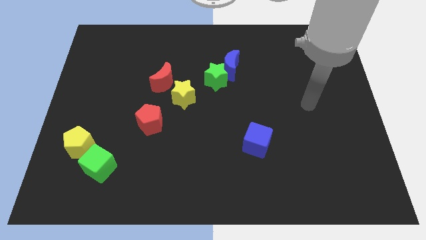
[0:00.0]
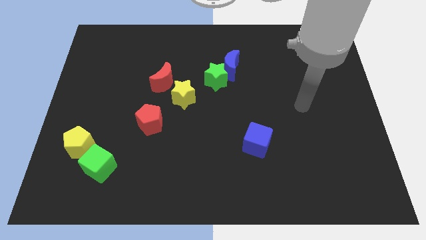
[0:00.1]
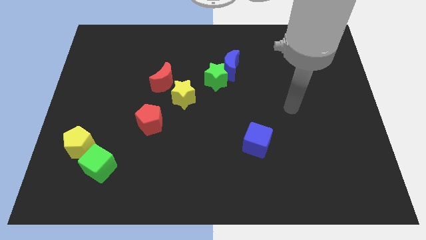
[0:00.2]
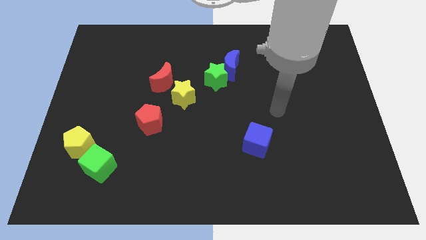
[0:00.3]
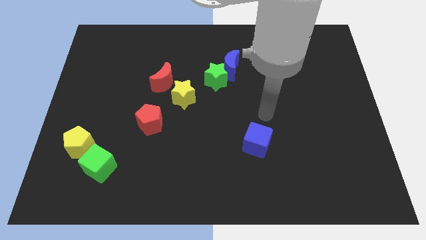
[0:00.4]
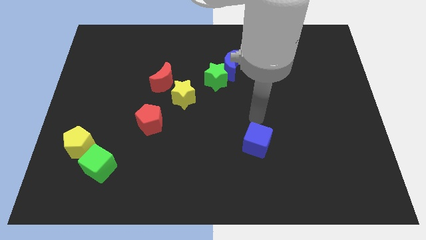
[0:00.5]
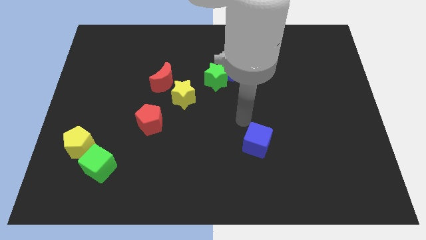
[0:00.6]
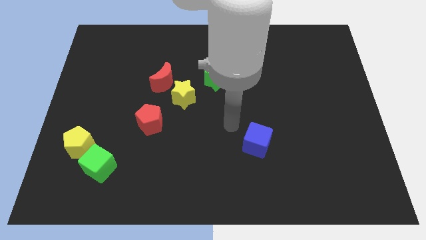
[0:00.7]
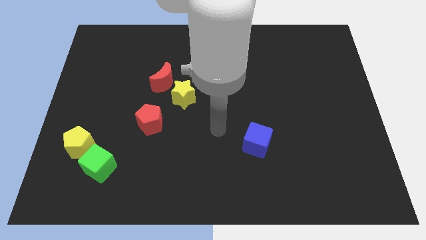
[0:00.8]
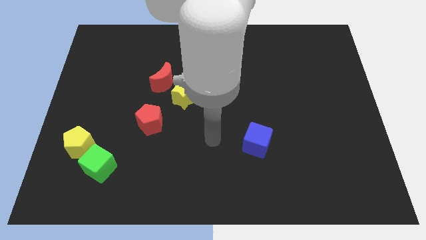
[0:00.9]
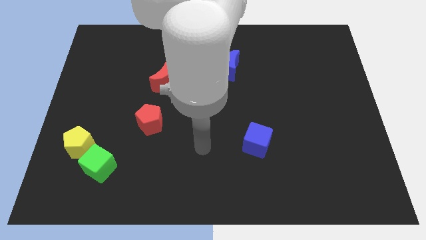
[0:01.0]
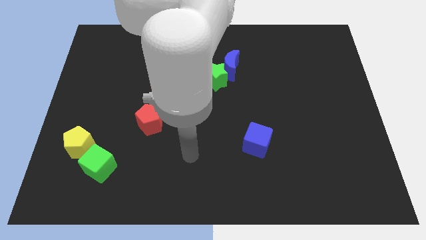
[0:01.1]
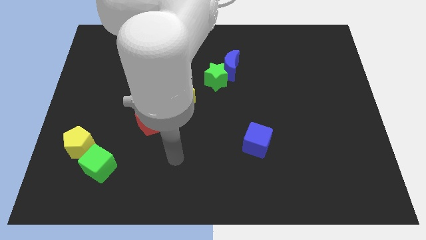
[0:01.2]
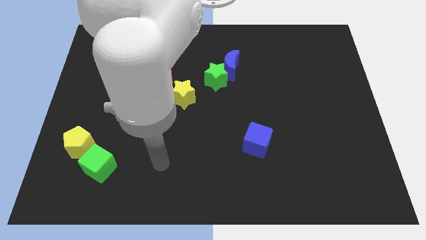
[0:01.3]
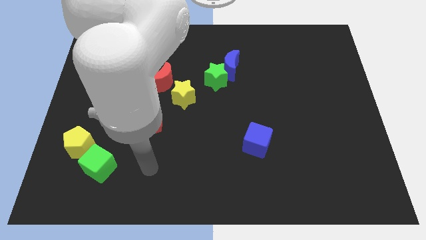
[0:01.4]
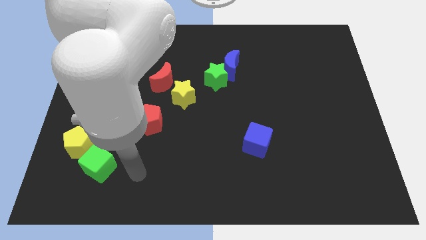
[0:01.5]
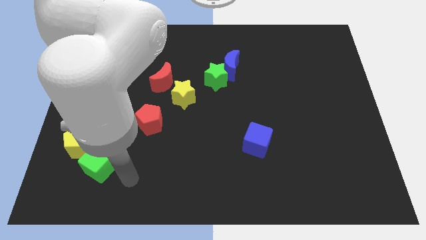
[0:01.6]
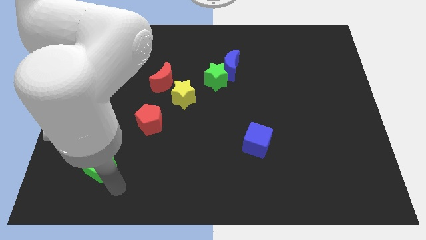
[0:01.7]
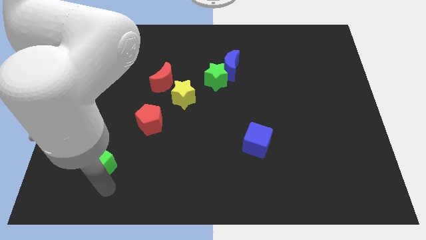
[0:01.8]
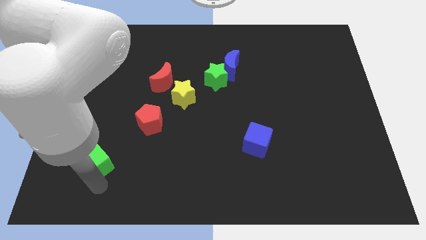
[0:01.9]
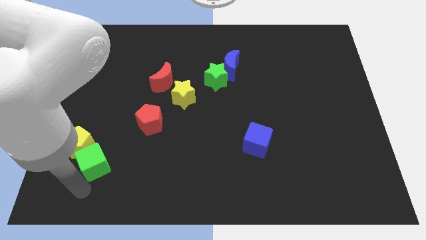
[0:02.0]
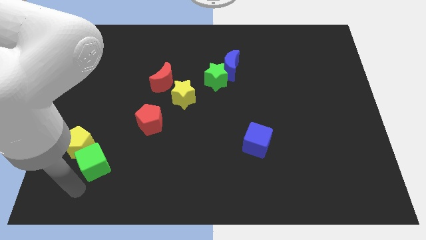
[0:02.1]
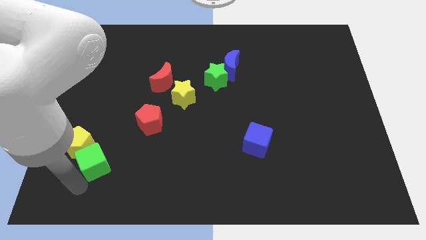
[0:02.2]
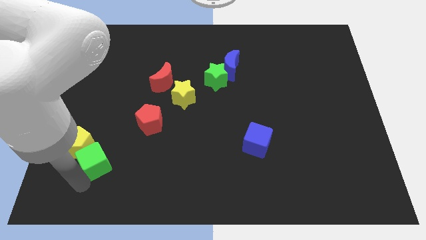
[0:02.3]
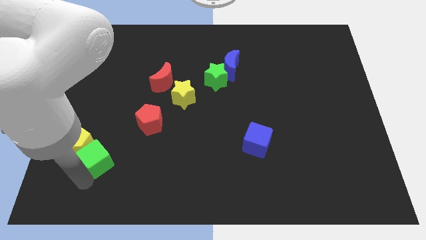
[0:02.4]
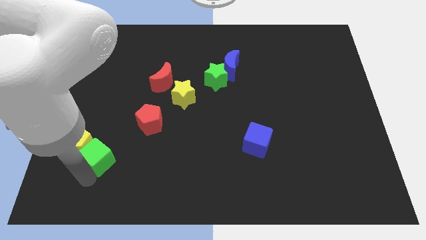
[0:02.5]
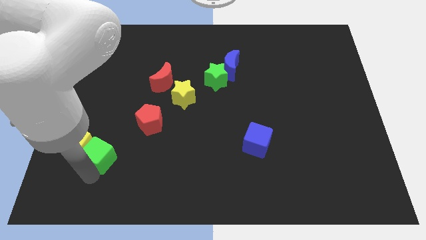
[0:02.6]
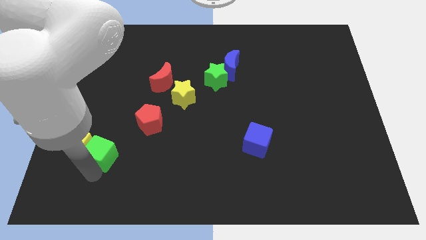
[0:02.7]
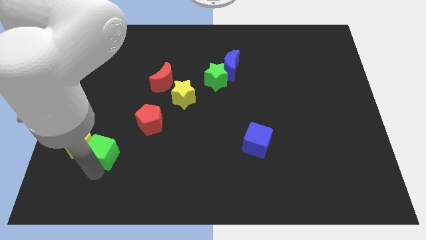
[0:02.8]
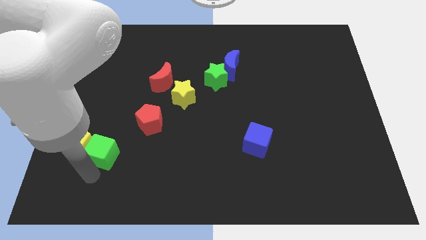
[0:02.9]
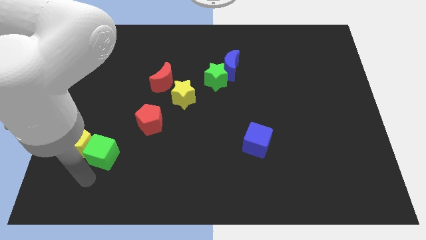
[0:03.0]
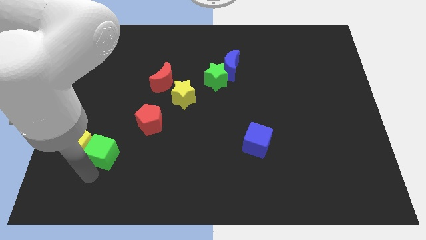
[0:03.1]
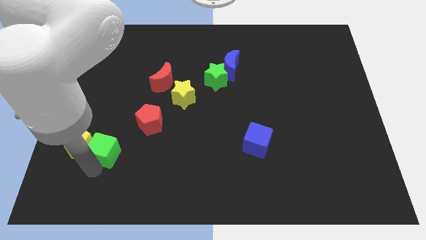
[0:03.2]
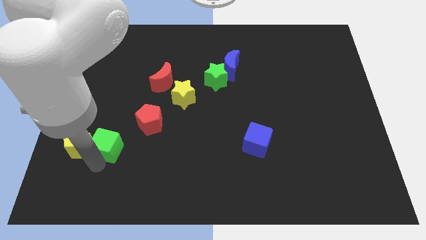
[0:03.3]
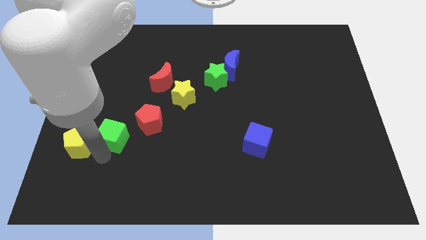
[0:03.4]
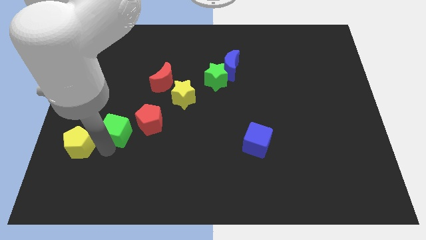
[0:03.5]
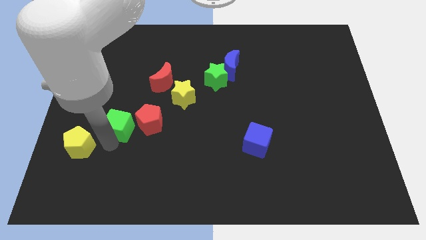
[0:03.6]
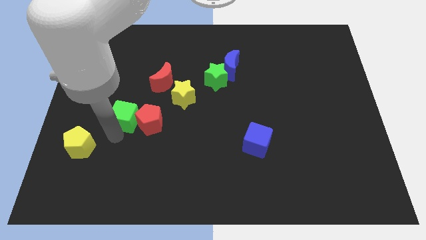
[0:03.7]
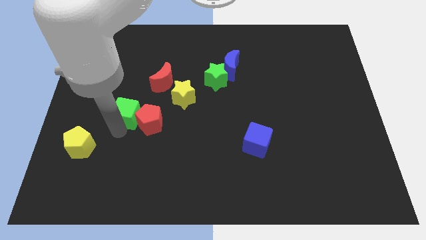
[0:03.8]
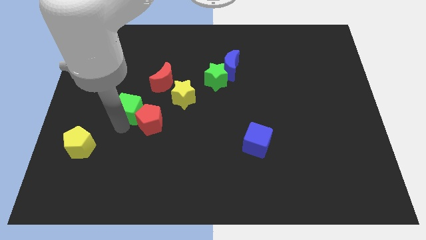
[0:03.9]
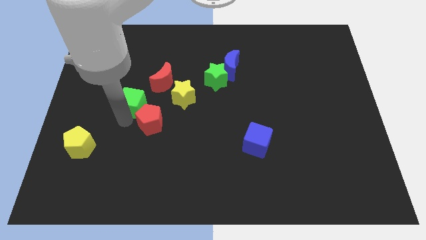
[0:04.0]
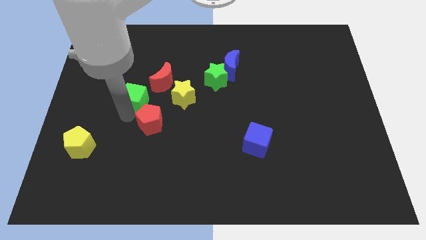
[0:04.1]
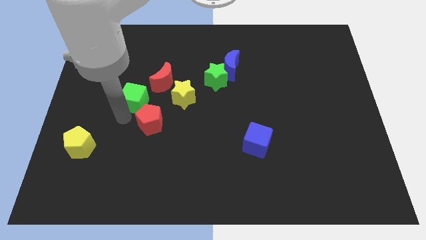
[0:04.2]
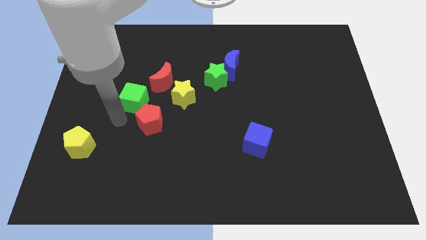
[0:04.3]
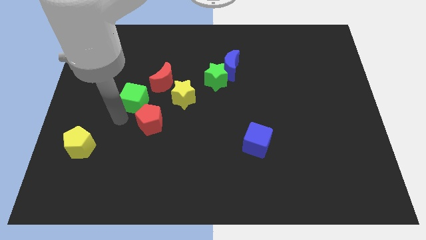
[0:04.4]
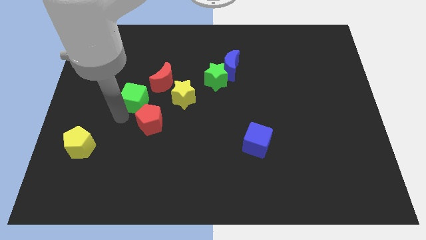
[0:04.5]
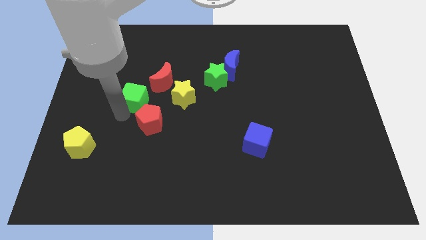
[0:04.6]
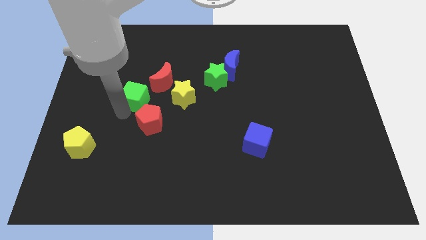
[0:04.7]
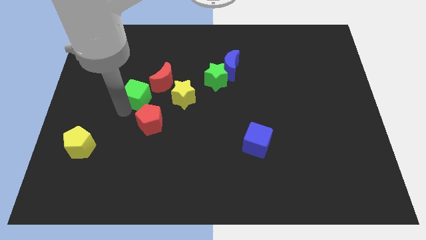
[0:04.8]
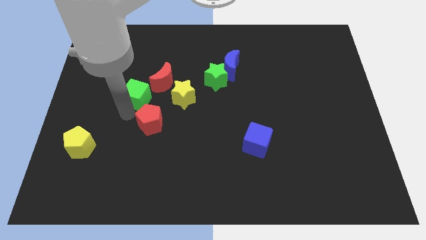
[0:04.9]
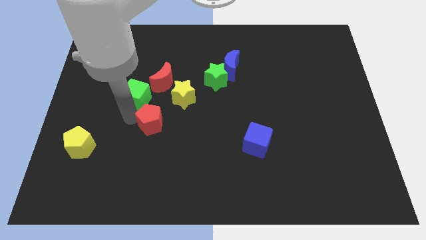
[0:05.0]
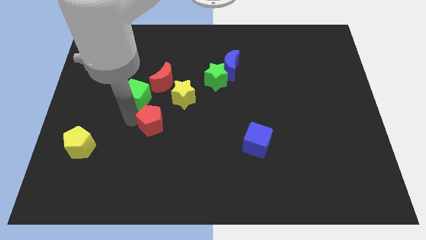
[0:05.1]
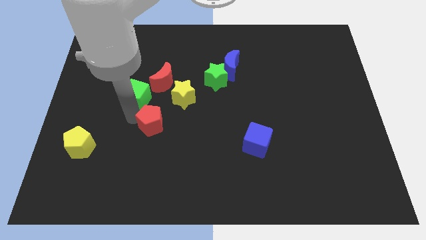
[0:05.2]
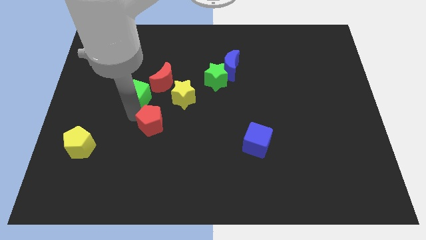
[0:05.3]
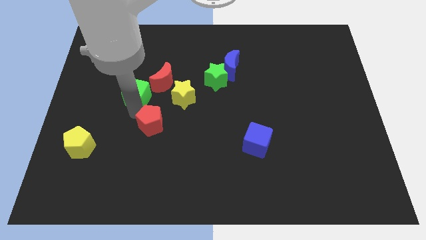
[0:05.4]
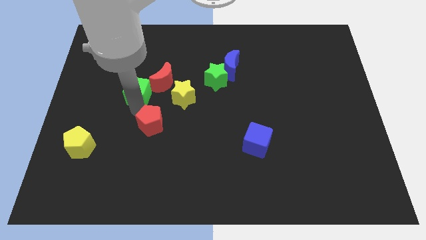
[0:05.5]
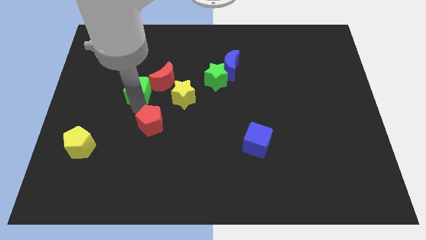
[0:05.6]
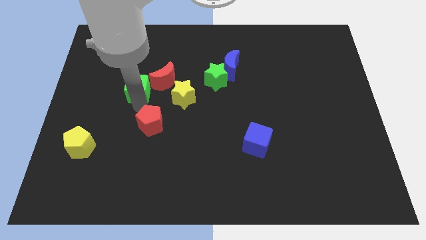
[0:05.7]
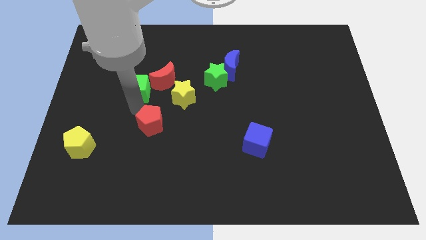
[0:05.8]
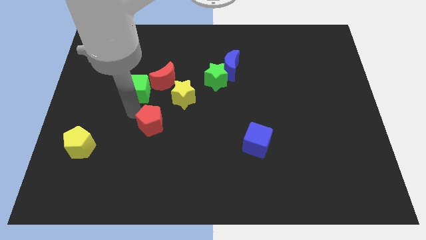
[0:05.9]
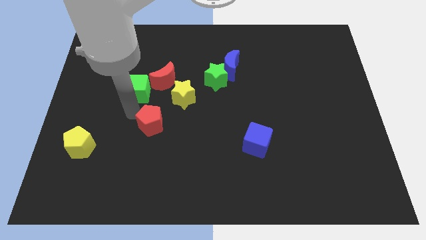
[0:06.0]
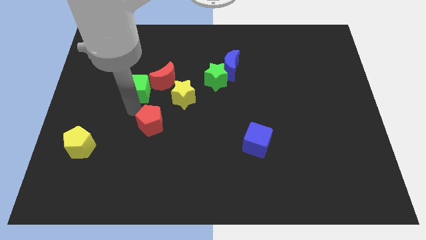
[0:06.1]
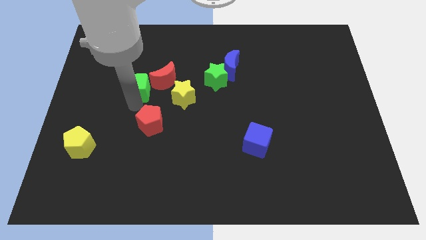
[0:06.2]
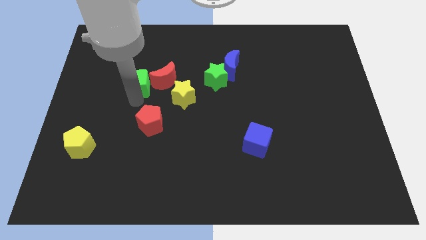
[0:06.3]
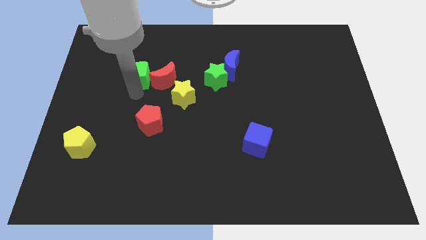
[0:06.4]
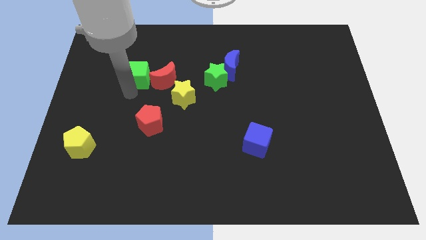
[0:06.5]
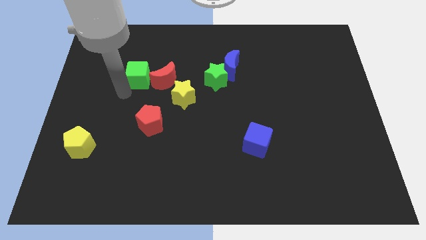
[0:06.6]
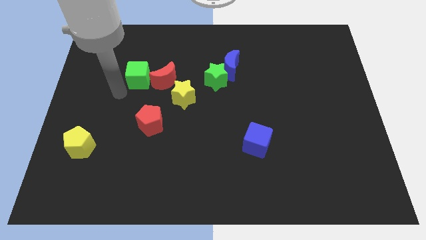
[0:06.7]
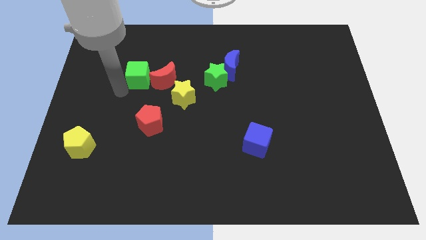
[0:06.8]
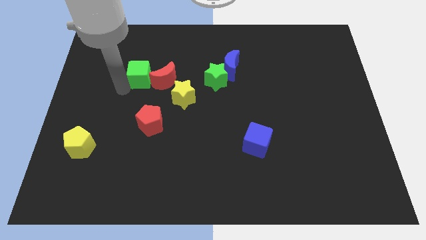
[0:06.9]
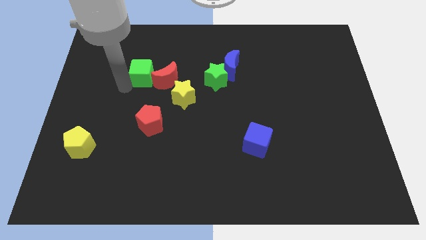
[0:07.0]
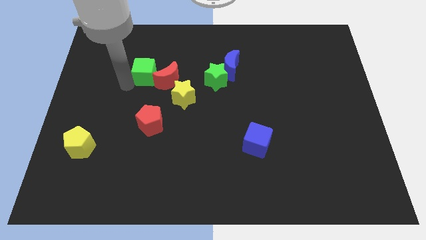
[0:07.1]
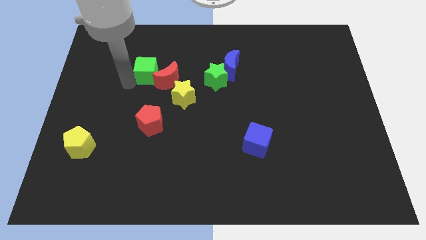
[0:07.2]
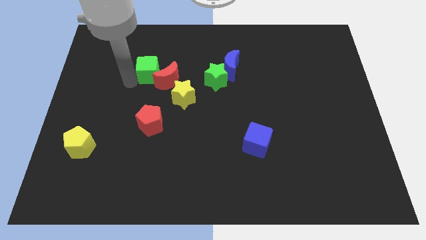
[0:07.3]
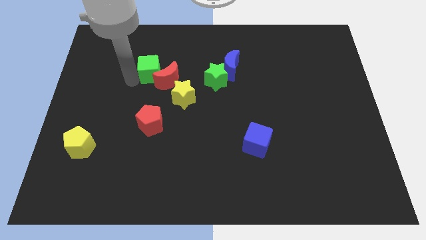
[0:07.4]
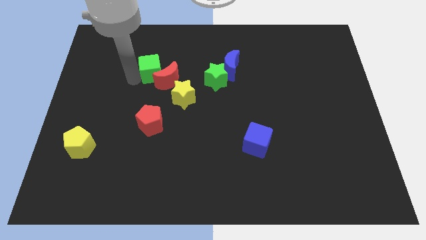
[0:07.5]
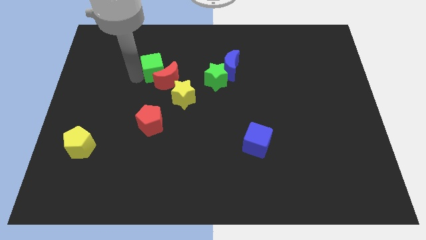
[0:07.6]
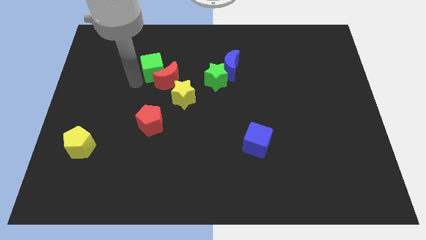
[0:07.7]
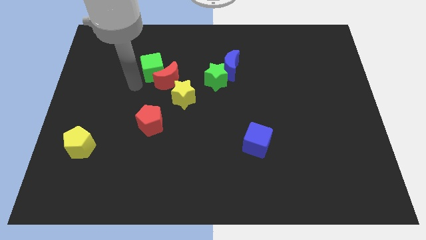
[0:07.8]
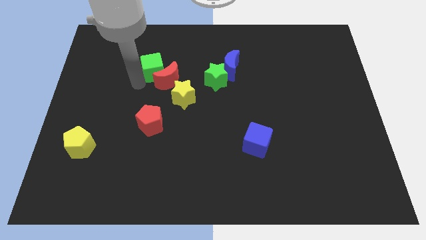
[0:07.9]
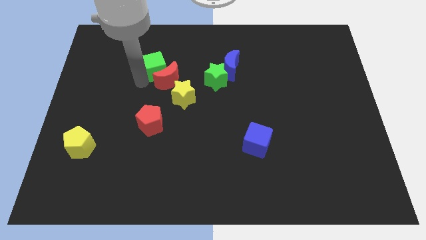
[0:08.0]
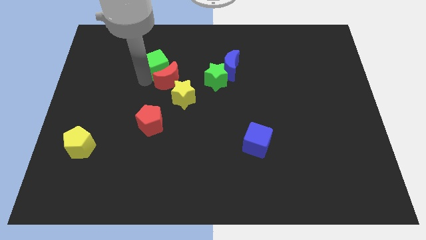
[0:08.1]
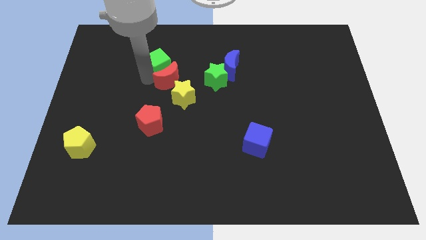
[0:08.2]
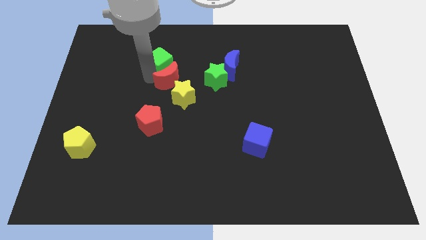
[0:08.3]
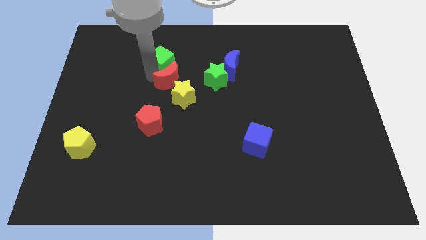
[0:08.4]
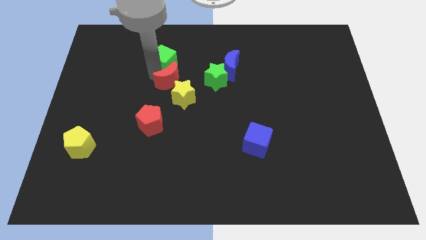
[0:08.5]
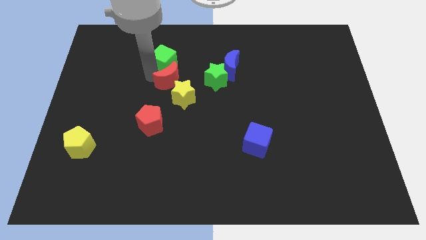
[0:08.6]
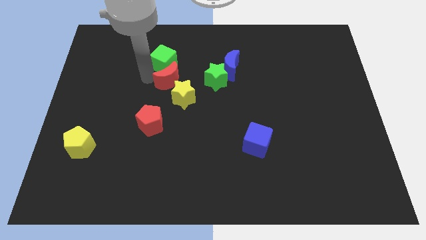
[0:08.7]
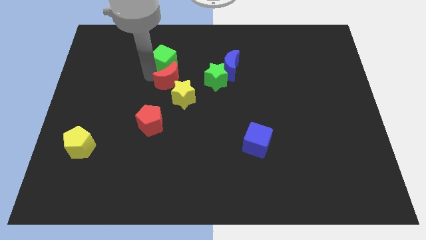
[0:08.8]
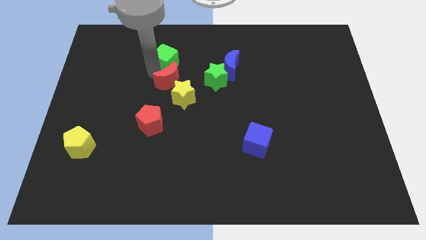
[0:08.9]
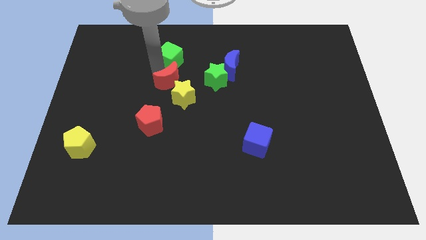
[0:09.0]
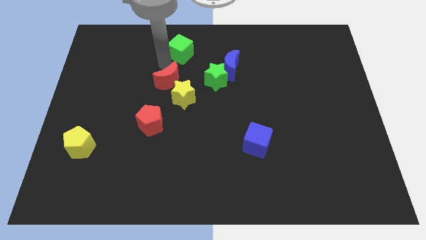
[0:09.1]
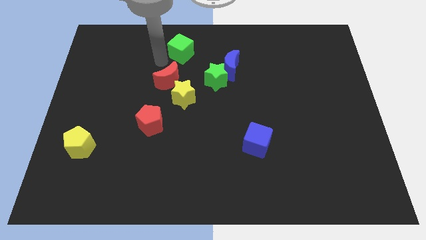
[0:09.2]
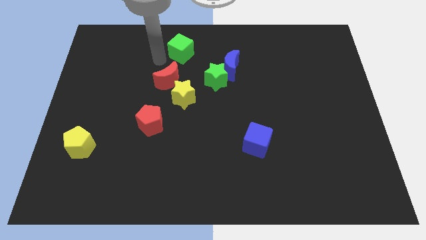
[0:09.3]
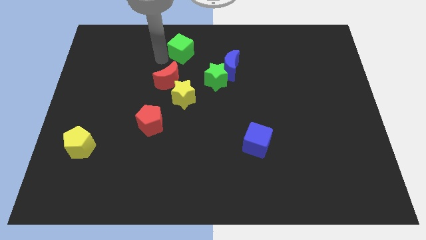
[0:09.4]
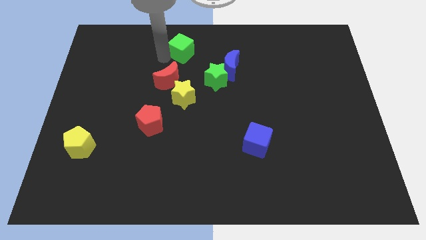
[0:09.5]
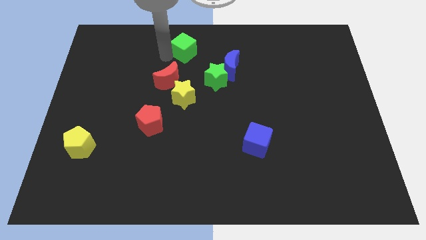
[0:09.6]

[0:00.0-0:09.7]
move the green cube to the top side
